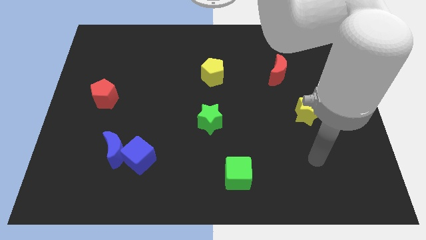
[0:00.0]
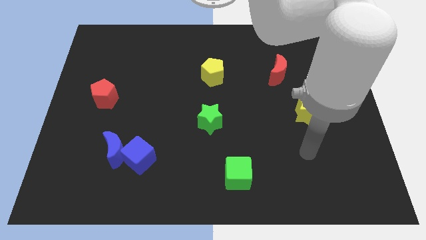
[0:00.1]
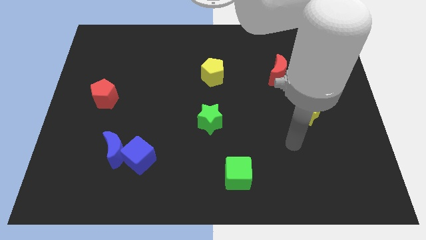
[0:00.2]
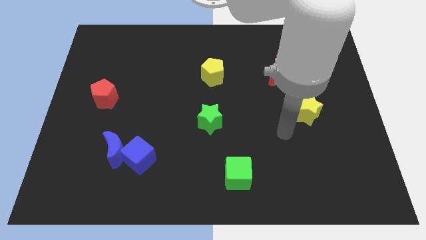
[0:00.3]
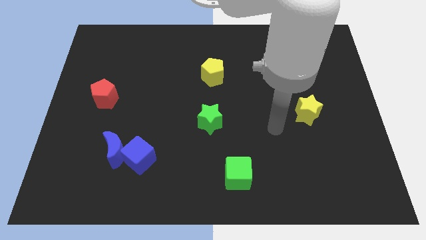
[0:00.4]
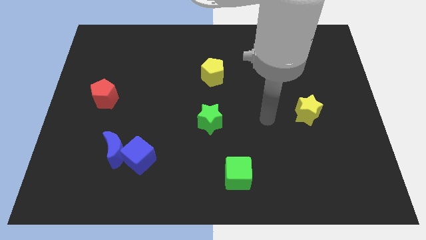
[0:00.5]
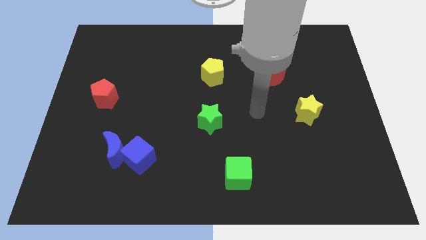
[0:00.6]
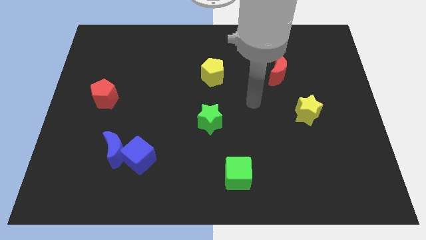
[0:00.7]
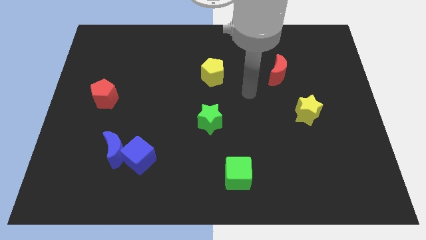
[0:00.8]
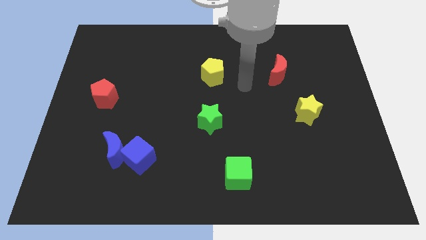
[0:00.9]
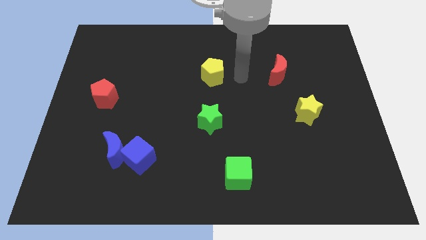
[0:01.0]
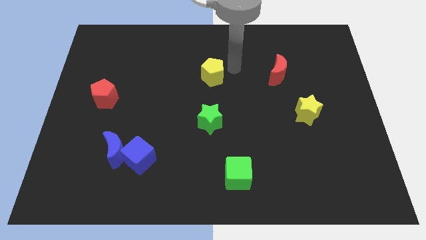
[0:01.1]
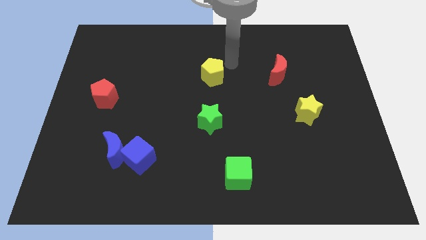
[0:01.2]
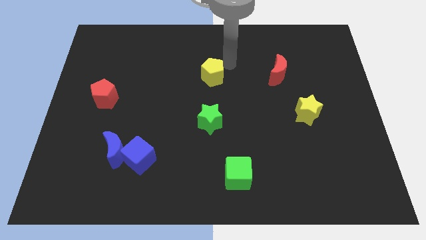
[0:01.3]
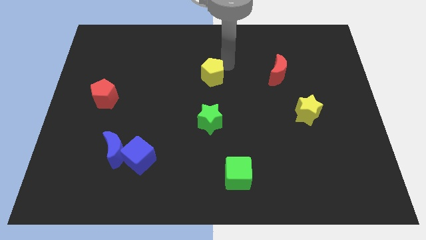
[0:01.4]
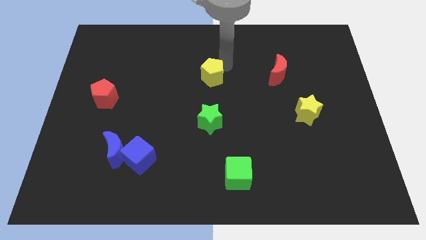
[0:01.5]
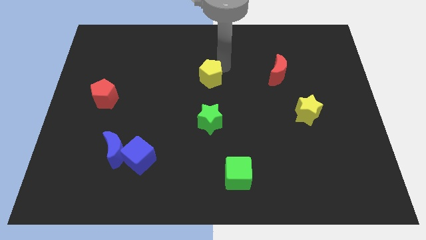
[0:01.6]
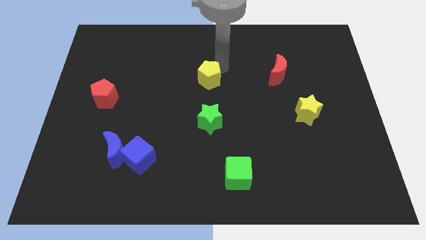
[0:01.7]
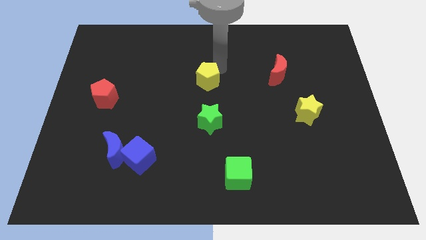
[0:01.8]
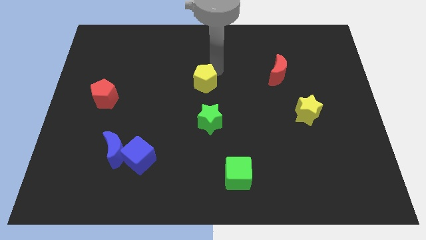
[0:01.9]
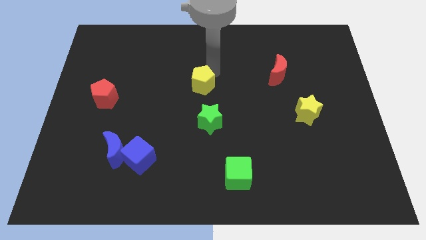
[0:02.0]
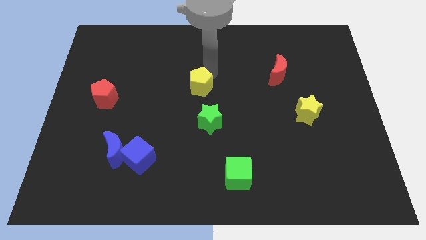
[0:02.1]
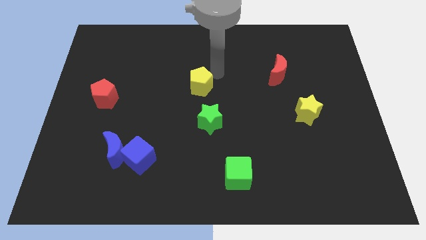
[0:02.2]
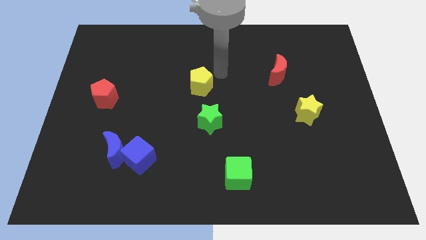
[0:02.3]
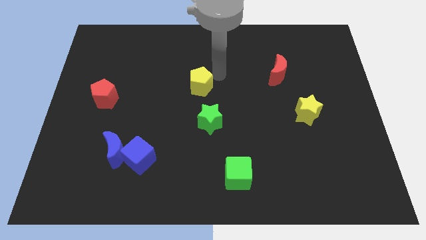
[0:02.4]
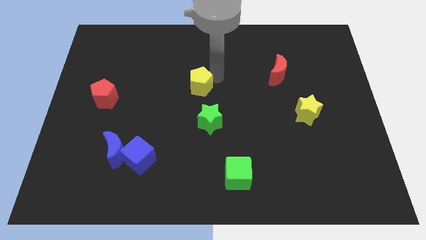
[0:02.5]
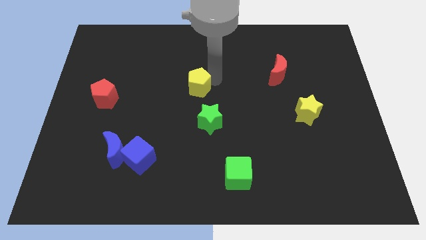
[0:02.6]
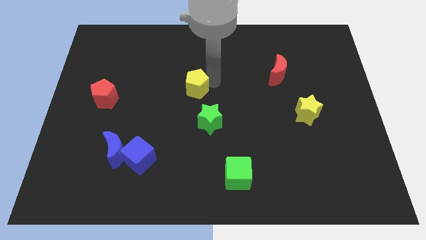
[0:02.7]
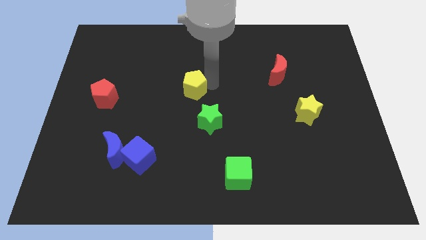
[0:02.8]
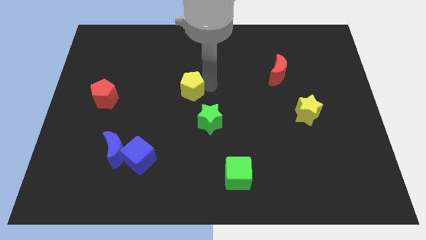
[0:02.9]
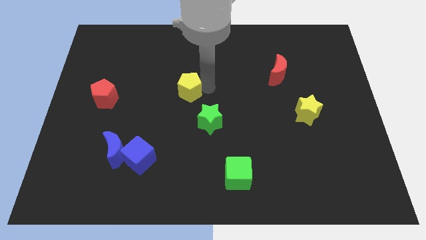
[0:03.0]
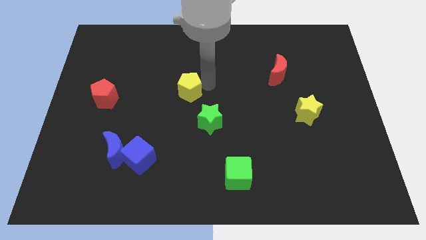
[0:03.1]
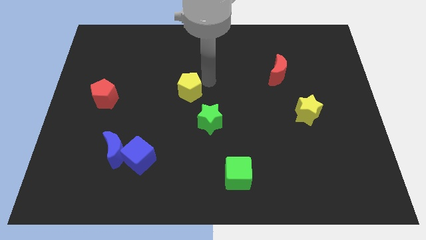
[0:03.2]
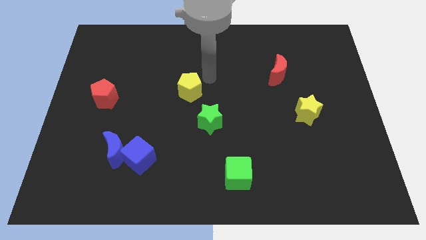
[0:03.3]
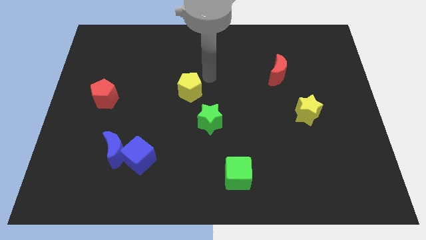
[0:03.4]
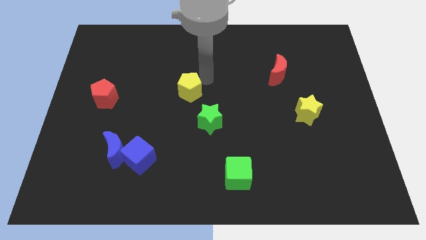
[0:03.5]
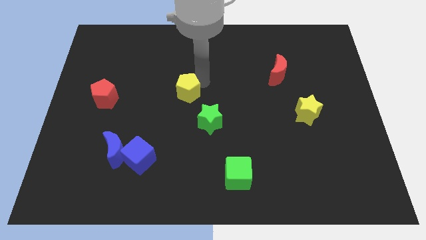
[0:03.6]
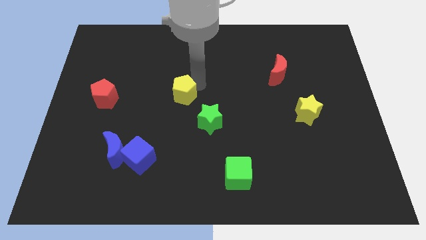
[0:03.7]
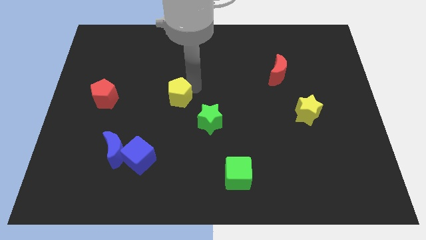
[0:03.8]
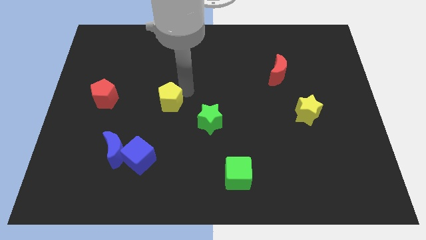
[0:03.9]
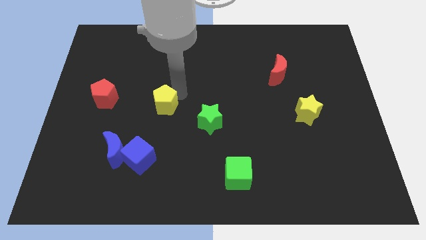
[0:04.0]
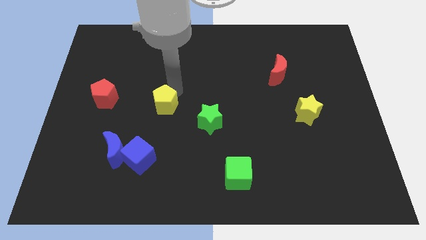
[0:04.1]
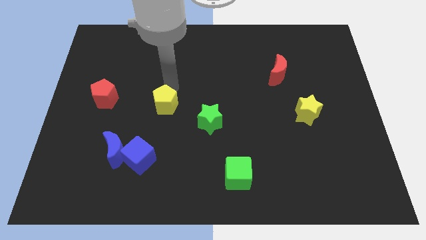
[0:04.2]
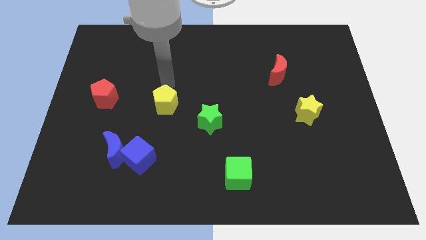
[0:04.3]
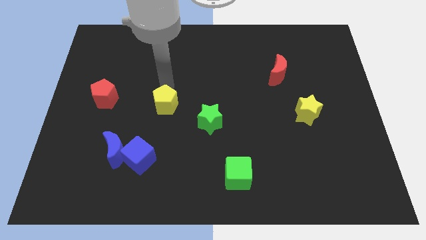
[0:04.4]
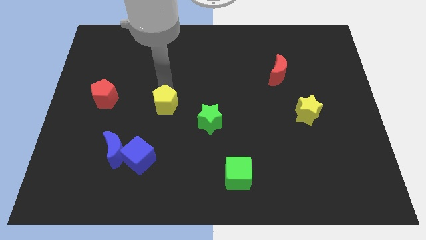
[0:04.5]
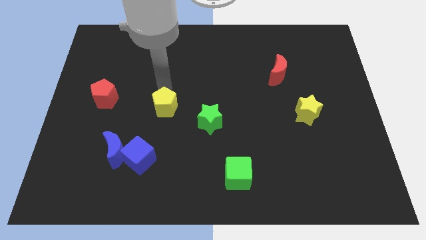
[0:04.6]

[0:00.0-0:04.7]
slide the yellow pentagon left of the green star

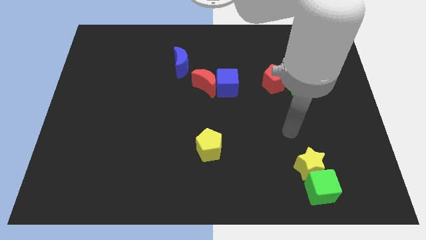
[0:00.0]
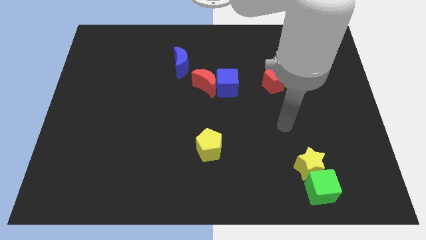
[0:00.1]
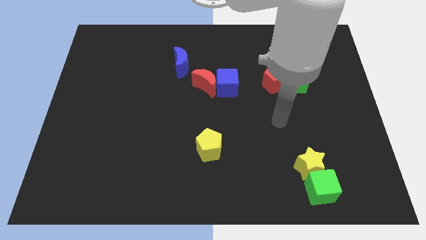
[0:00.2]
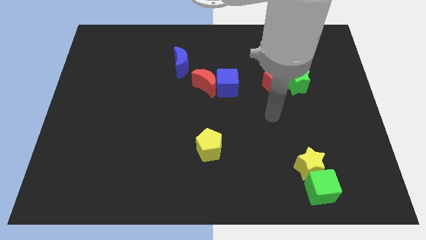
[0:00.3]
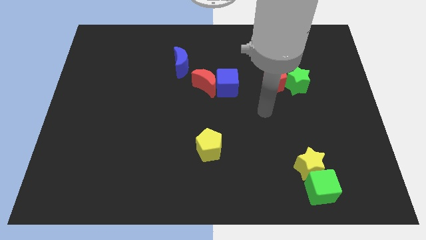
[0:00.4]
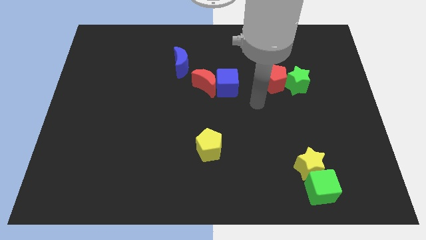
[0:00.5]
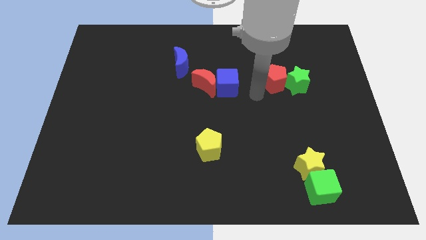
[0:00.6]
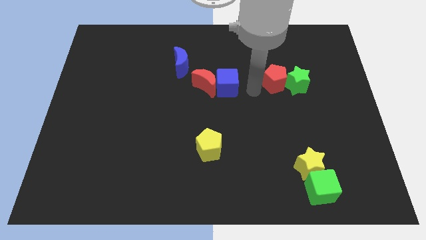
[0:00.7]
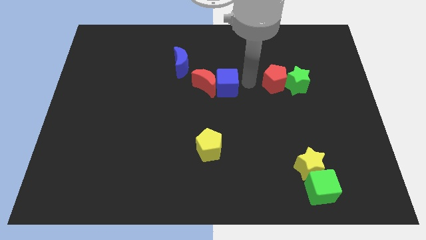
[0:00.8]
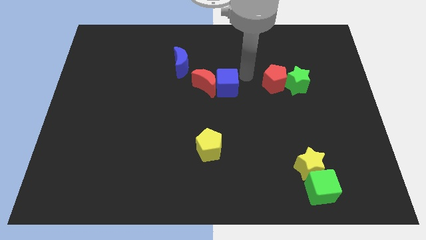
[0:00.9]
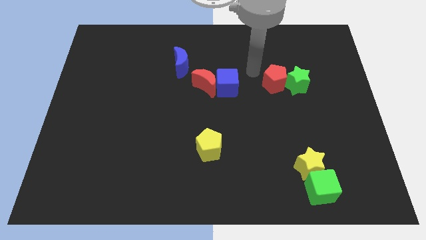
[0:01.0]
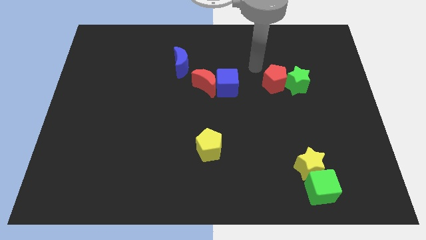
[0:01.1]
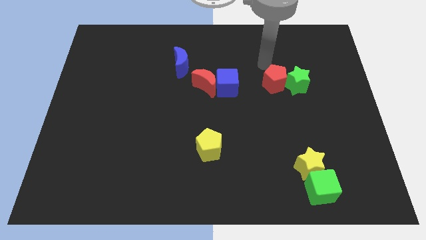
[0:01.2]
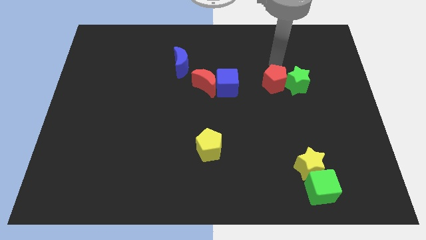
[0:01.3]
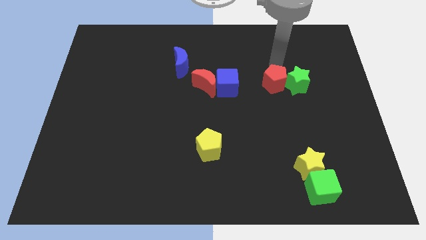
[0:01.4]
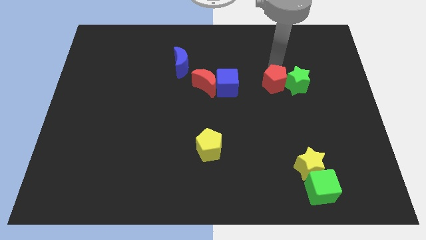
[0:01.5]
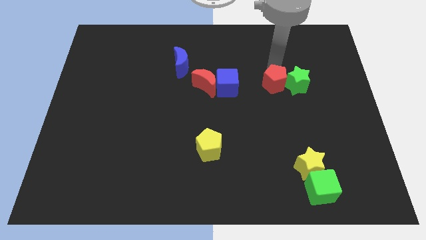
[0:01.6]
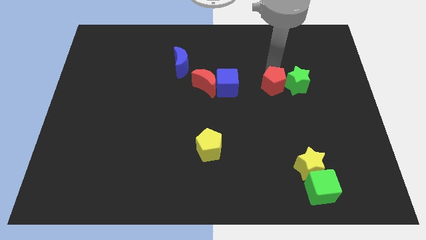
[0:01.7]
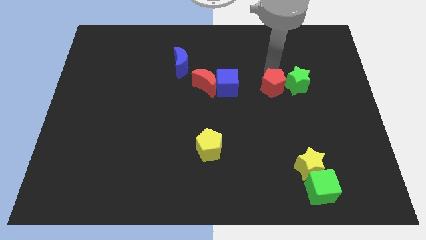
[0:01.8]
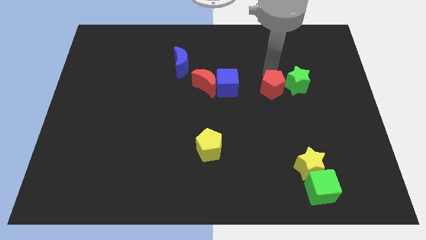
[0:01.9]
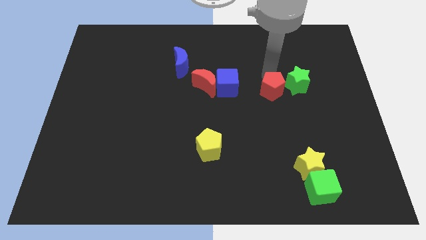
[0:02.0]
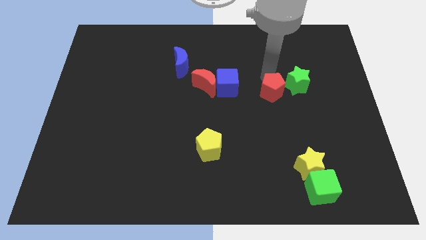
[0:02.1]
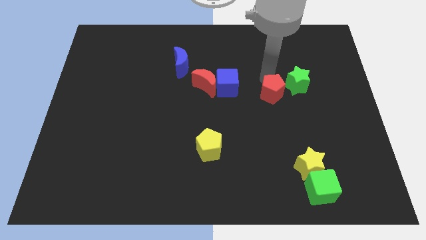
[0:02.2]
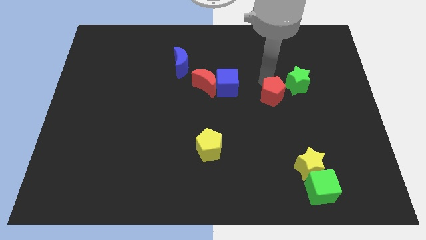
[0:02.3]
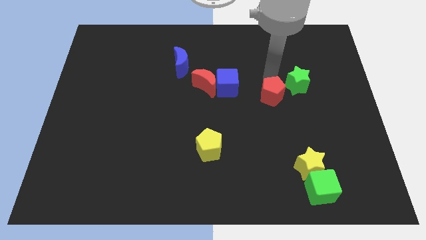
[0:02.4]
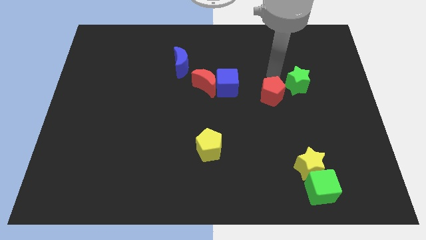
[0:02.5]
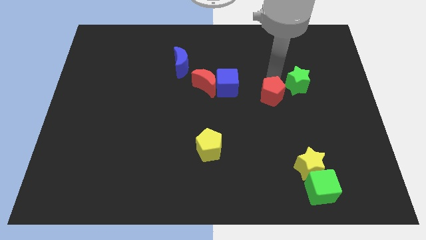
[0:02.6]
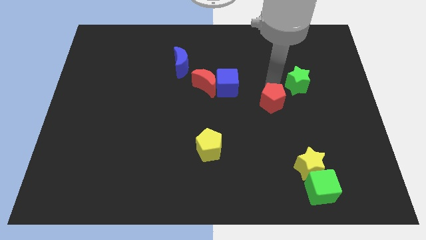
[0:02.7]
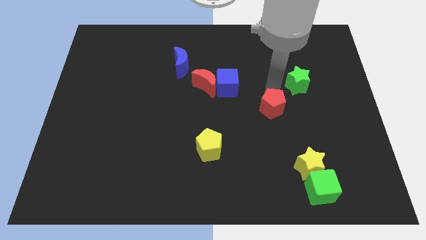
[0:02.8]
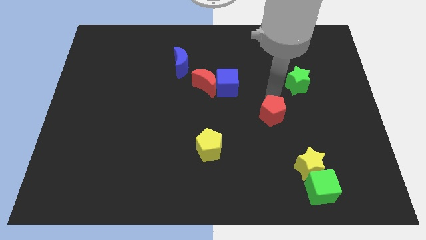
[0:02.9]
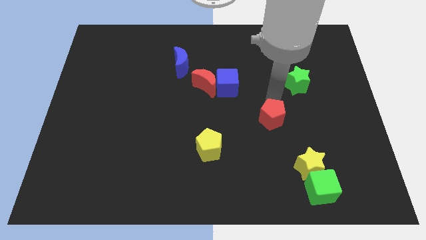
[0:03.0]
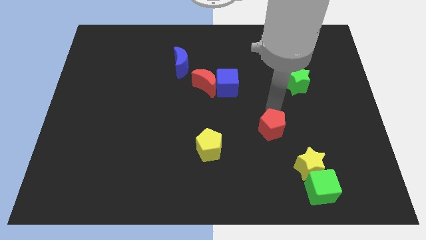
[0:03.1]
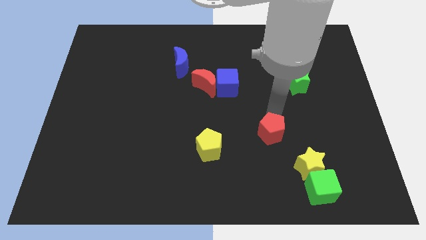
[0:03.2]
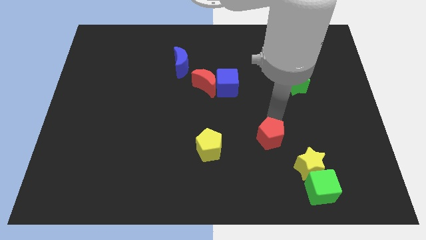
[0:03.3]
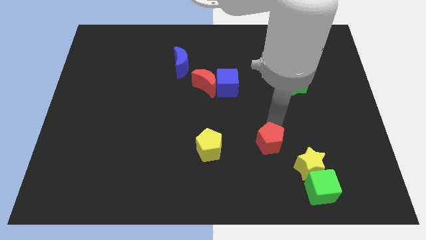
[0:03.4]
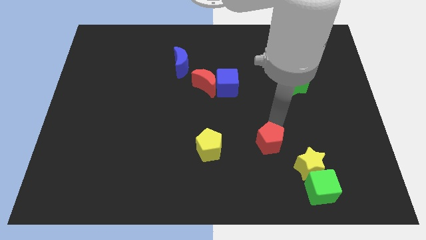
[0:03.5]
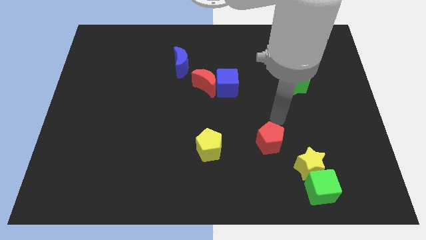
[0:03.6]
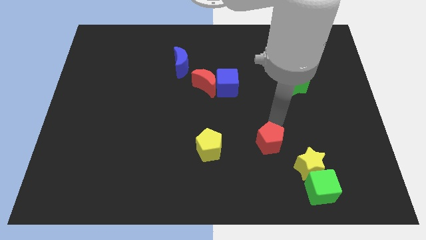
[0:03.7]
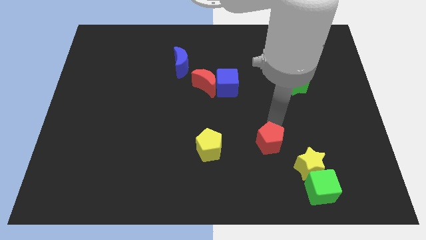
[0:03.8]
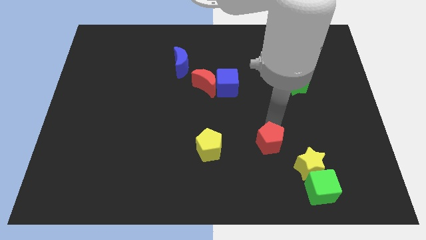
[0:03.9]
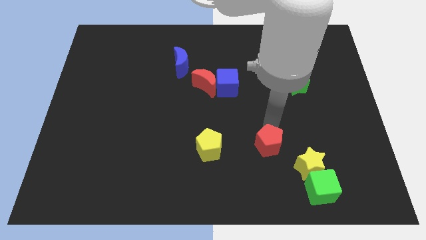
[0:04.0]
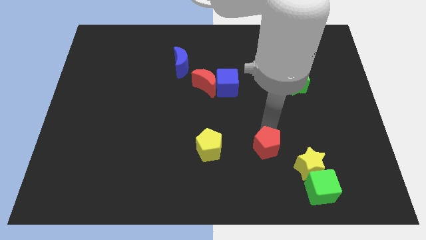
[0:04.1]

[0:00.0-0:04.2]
put the red pentagon left of the yellow star
